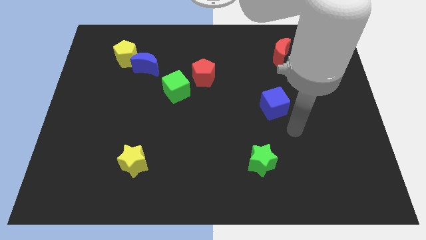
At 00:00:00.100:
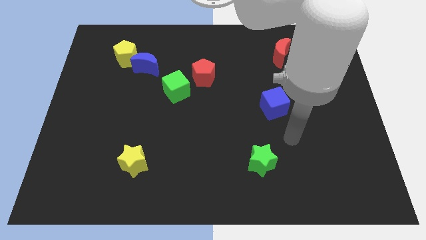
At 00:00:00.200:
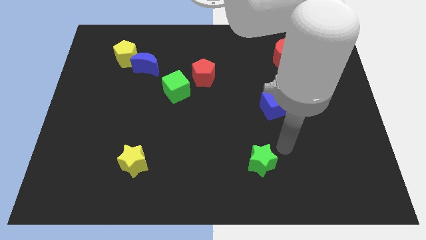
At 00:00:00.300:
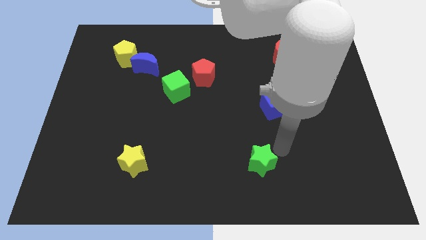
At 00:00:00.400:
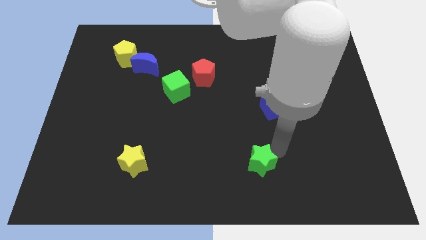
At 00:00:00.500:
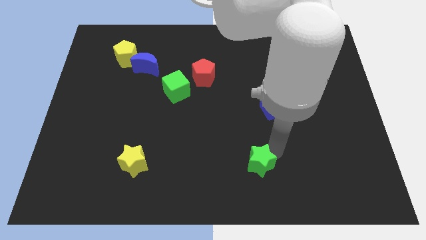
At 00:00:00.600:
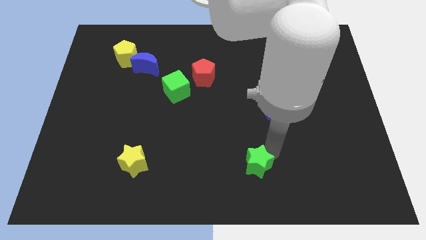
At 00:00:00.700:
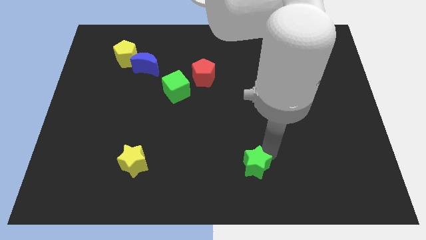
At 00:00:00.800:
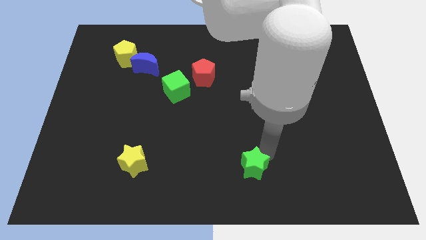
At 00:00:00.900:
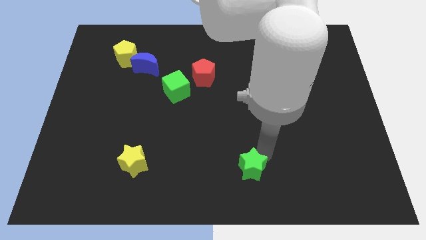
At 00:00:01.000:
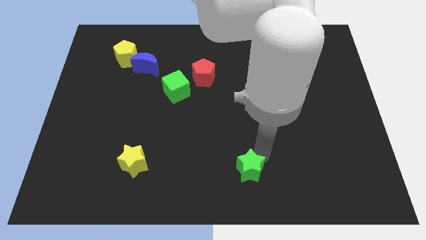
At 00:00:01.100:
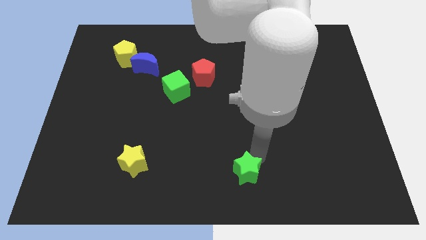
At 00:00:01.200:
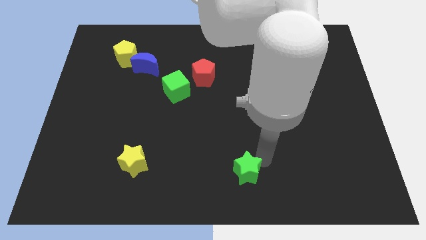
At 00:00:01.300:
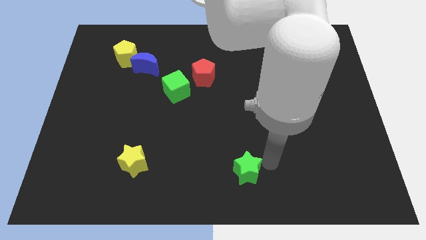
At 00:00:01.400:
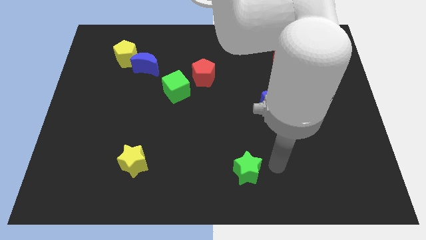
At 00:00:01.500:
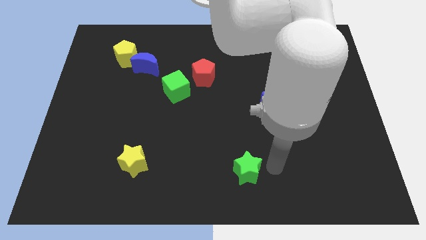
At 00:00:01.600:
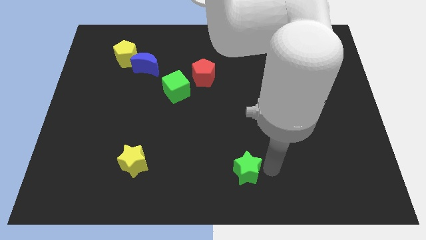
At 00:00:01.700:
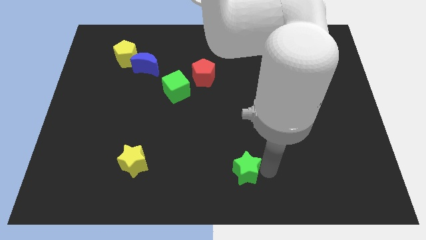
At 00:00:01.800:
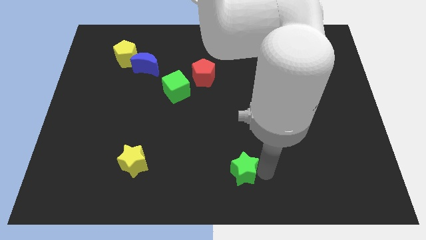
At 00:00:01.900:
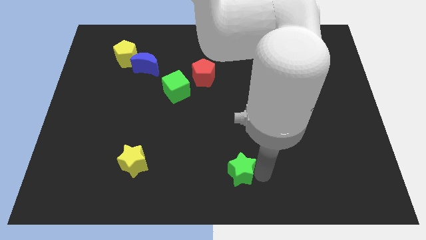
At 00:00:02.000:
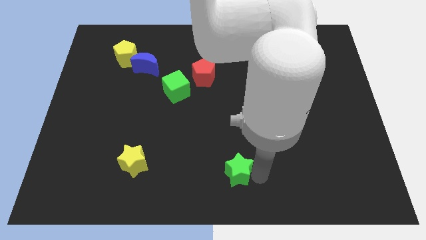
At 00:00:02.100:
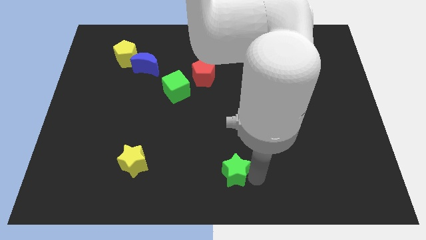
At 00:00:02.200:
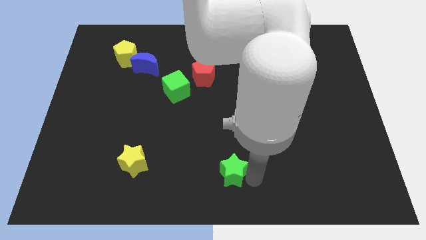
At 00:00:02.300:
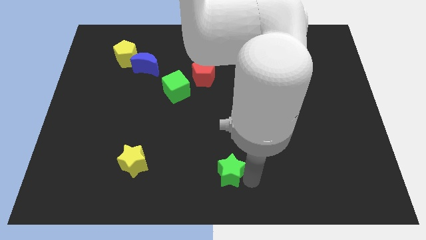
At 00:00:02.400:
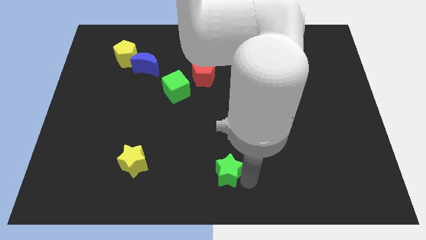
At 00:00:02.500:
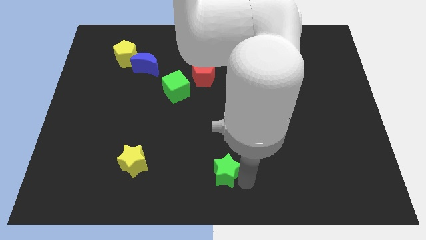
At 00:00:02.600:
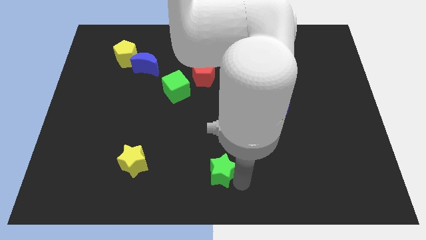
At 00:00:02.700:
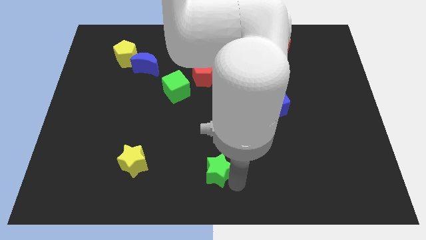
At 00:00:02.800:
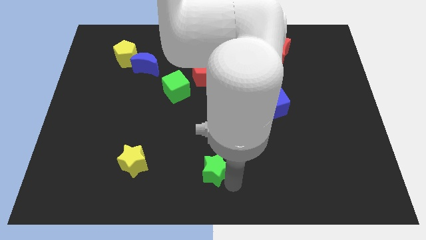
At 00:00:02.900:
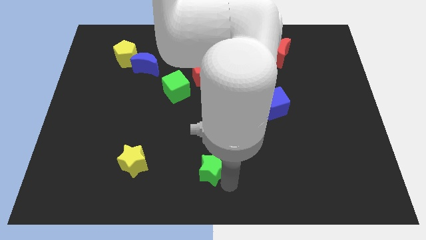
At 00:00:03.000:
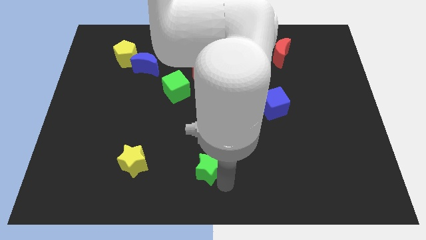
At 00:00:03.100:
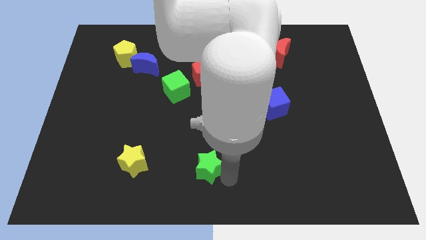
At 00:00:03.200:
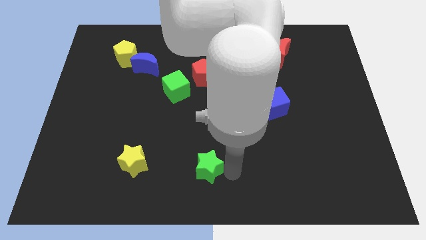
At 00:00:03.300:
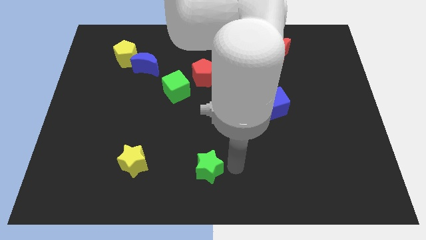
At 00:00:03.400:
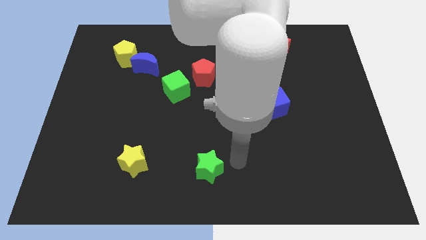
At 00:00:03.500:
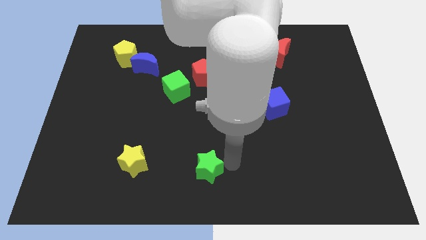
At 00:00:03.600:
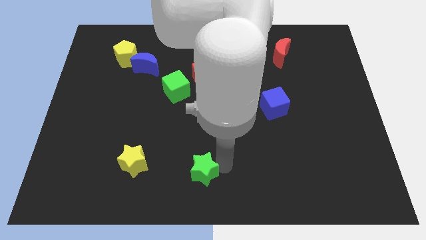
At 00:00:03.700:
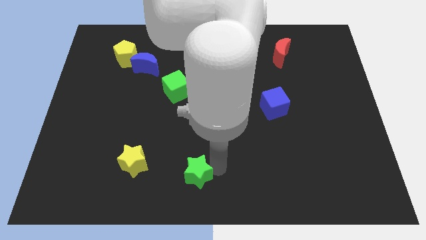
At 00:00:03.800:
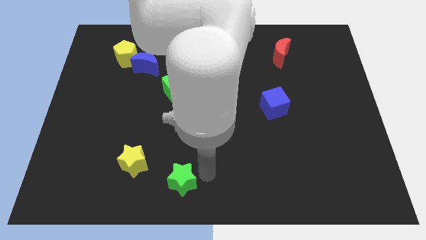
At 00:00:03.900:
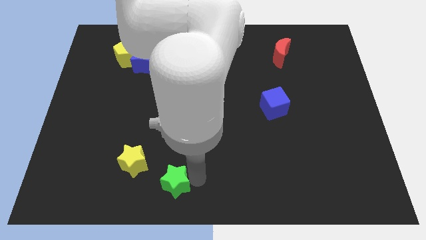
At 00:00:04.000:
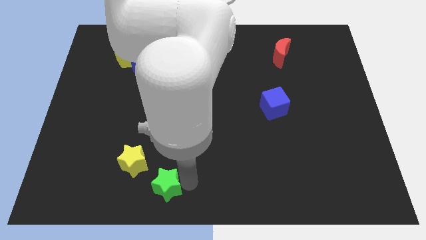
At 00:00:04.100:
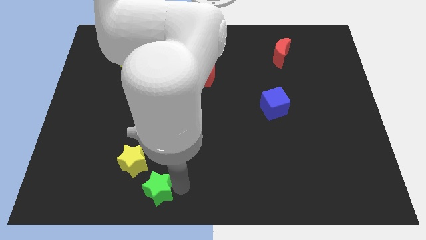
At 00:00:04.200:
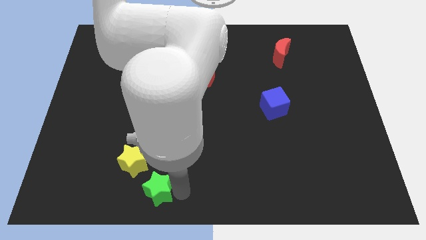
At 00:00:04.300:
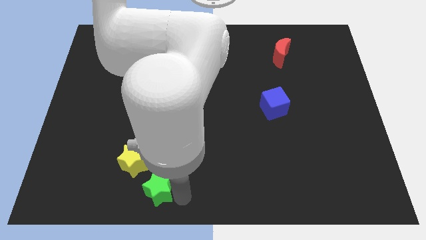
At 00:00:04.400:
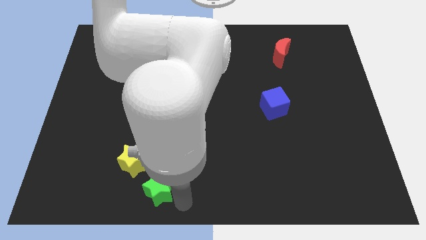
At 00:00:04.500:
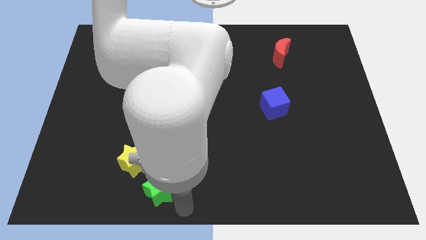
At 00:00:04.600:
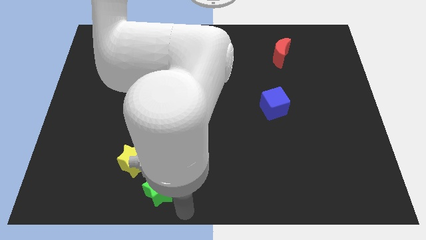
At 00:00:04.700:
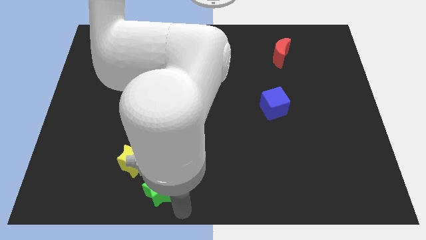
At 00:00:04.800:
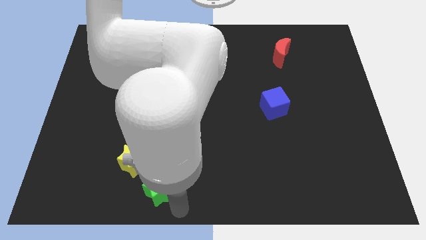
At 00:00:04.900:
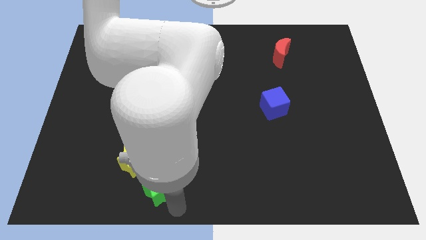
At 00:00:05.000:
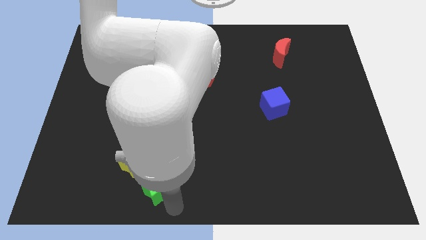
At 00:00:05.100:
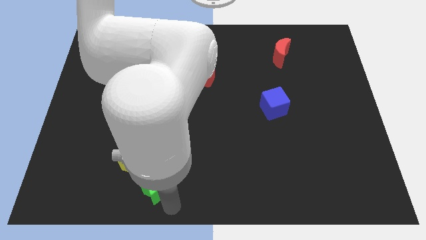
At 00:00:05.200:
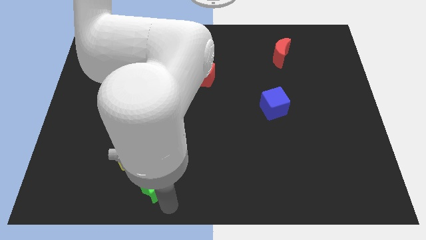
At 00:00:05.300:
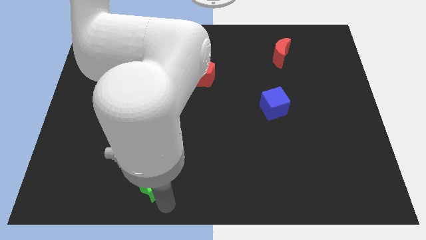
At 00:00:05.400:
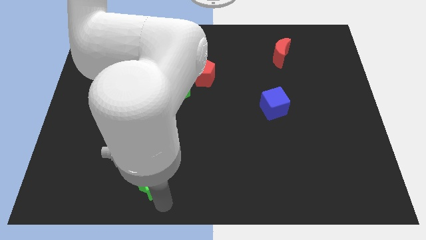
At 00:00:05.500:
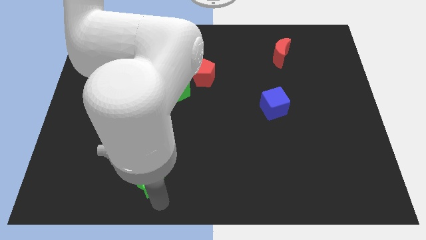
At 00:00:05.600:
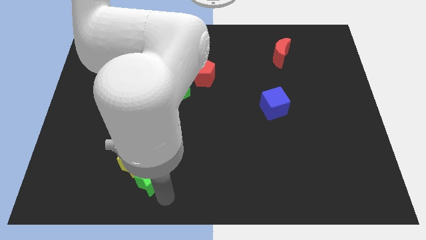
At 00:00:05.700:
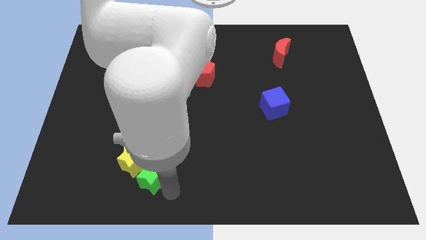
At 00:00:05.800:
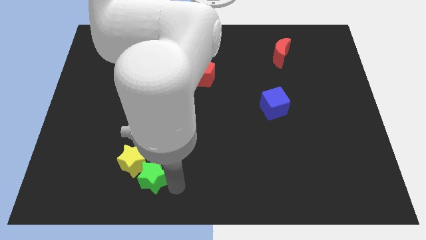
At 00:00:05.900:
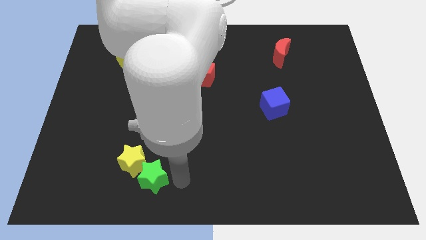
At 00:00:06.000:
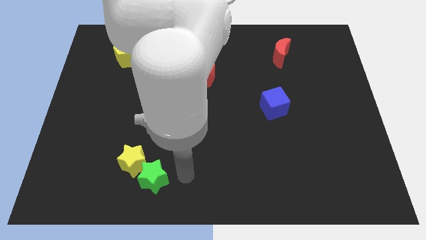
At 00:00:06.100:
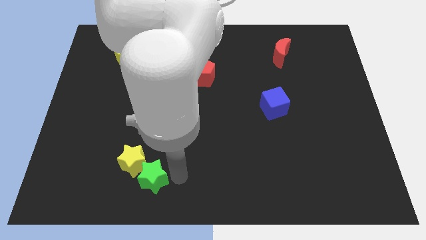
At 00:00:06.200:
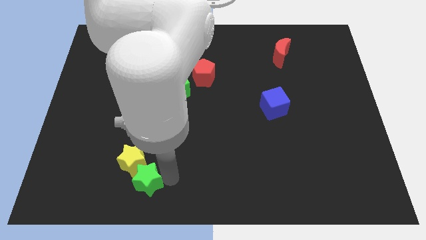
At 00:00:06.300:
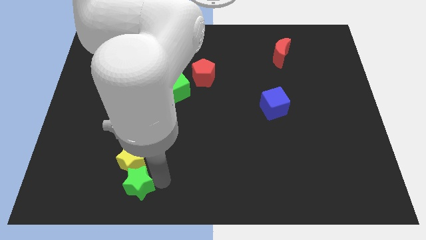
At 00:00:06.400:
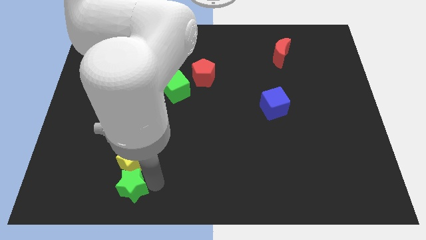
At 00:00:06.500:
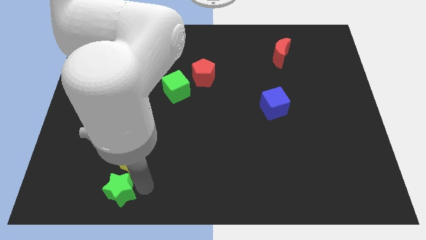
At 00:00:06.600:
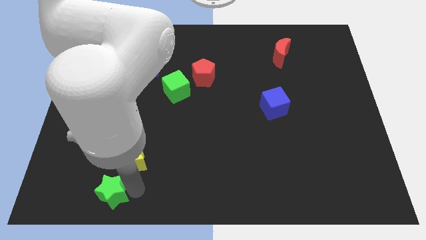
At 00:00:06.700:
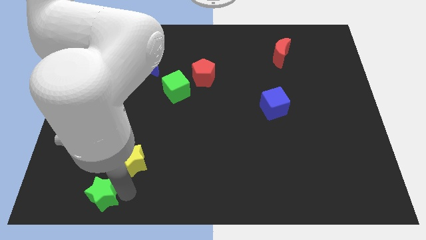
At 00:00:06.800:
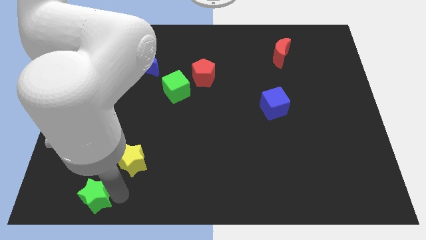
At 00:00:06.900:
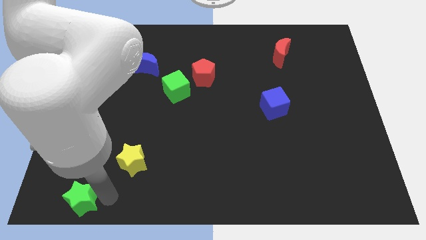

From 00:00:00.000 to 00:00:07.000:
move the green star to the bottom left

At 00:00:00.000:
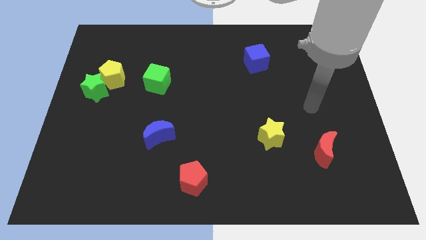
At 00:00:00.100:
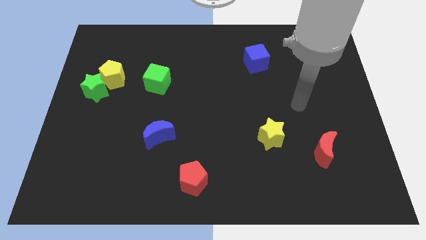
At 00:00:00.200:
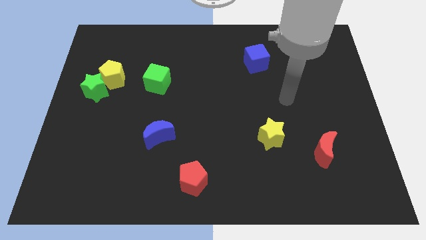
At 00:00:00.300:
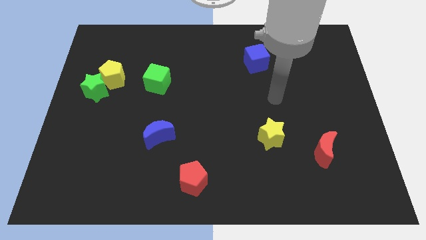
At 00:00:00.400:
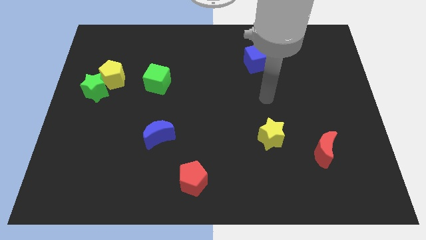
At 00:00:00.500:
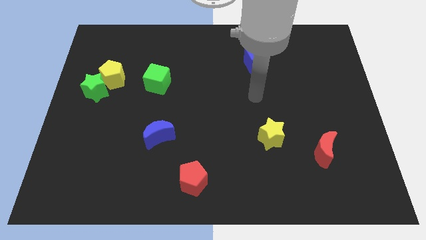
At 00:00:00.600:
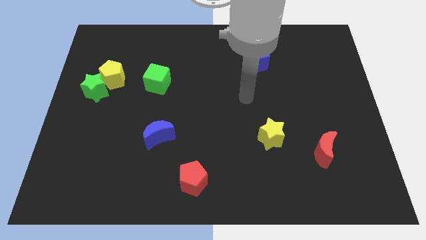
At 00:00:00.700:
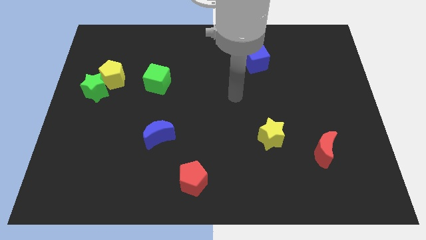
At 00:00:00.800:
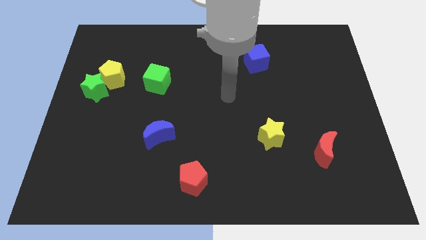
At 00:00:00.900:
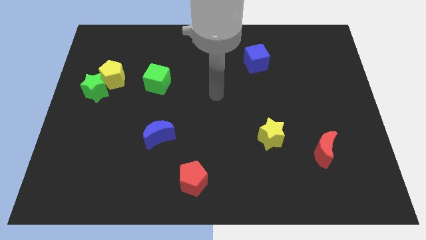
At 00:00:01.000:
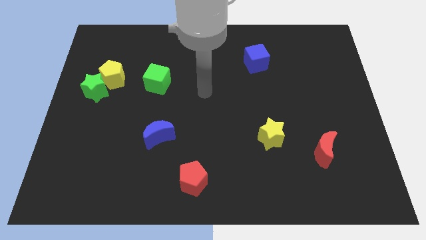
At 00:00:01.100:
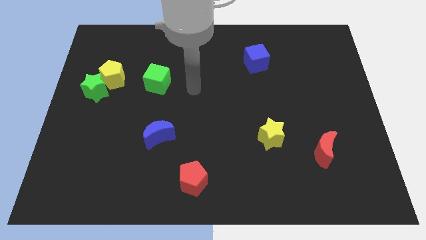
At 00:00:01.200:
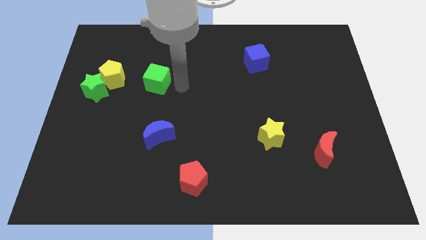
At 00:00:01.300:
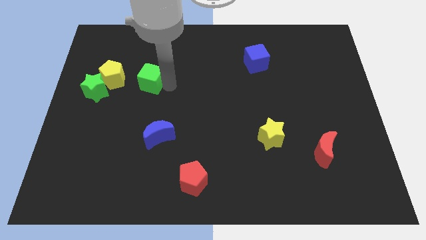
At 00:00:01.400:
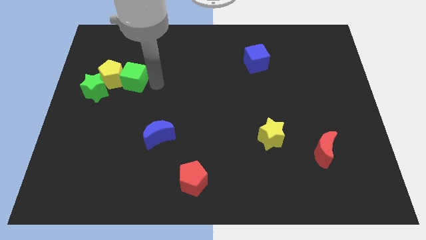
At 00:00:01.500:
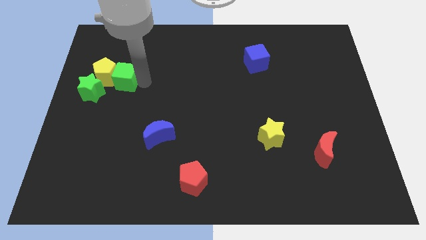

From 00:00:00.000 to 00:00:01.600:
slide the yellow pentagon to the left side
